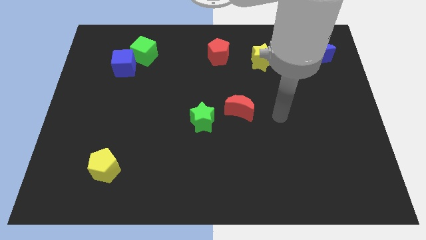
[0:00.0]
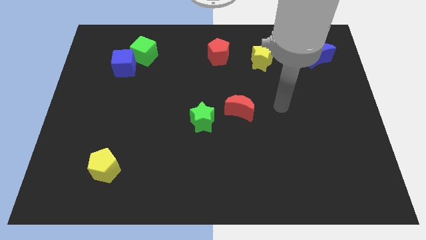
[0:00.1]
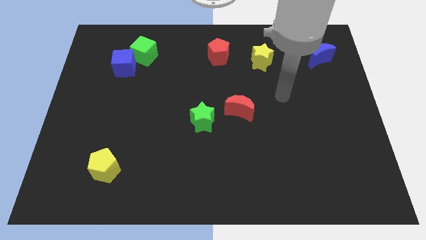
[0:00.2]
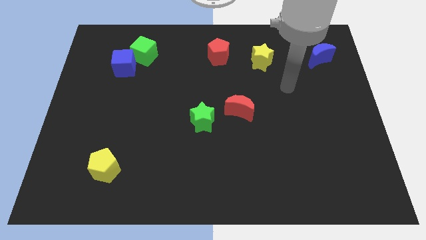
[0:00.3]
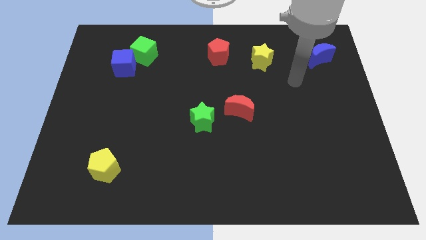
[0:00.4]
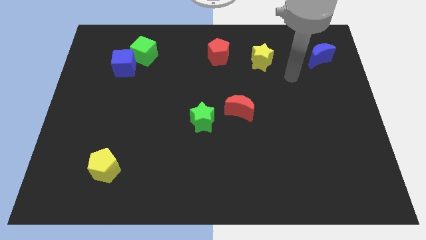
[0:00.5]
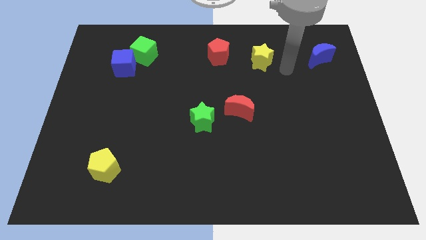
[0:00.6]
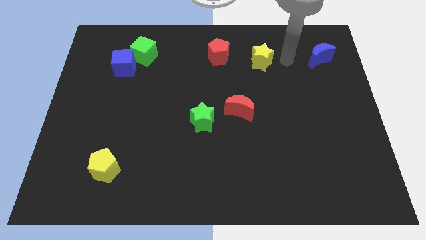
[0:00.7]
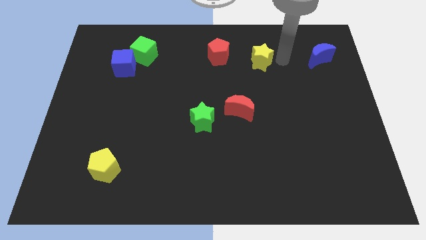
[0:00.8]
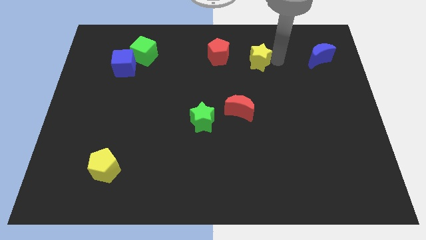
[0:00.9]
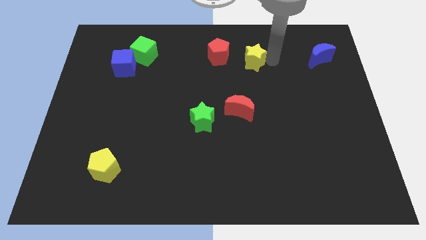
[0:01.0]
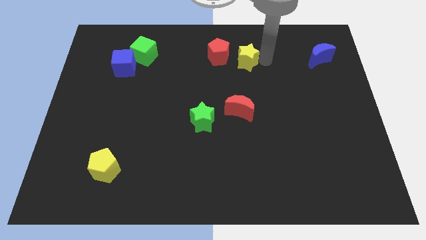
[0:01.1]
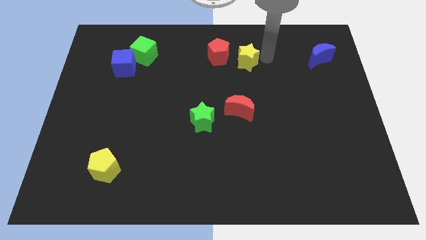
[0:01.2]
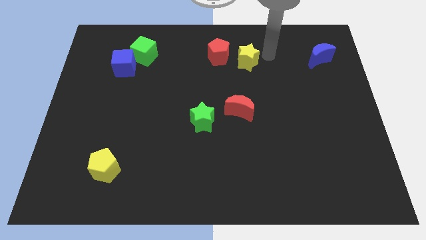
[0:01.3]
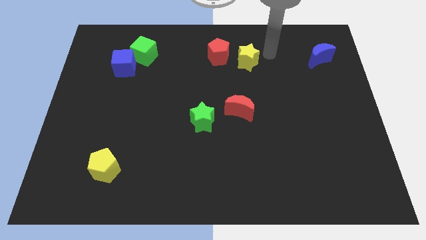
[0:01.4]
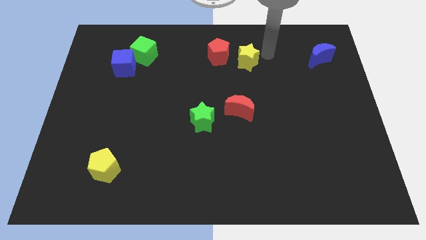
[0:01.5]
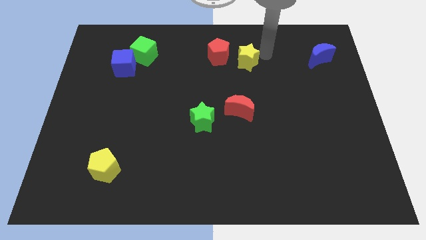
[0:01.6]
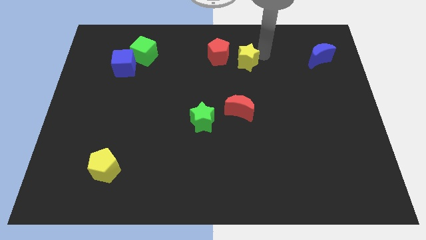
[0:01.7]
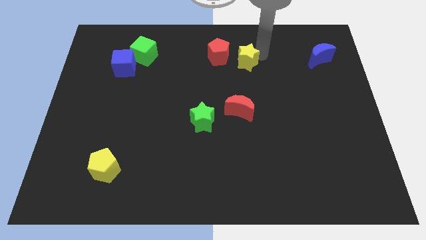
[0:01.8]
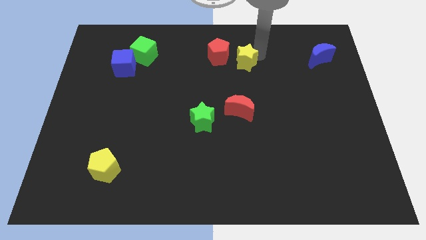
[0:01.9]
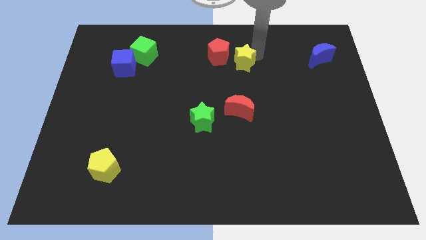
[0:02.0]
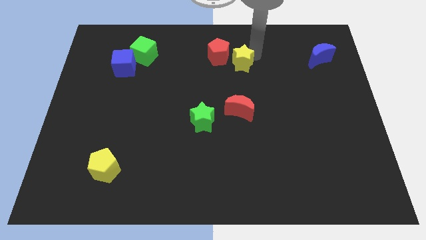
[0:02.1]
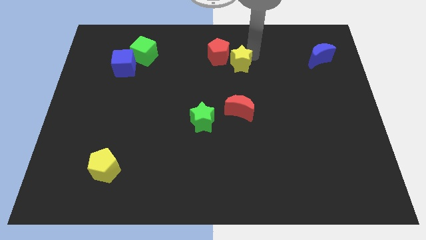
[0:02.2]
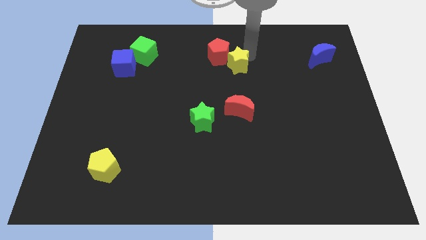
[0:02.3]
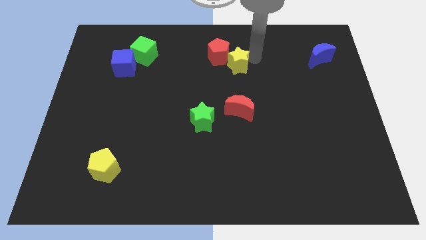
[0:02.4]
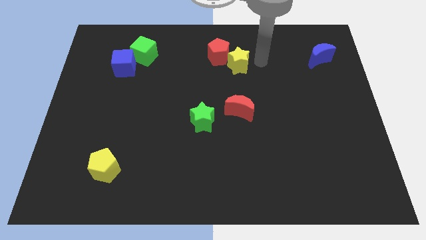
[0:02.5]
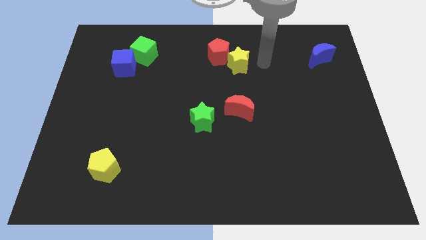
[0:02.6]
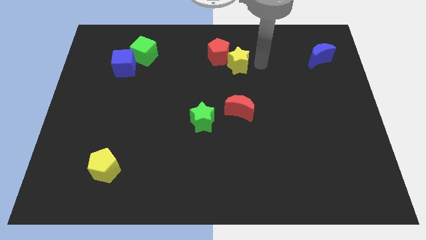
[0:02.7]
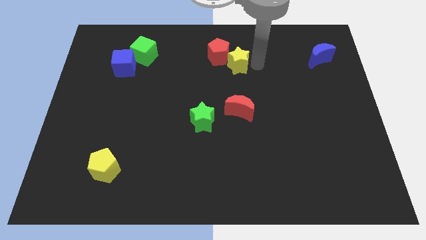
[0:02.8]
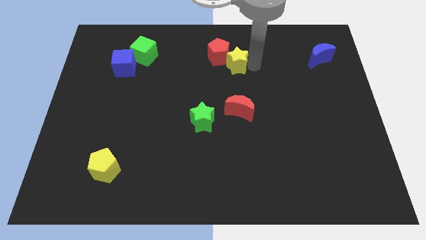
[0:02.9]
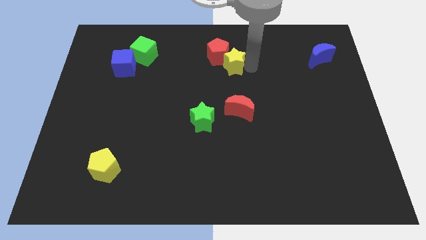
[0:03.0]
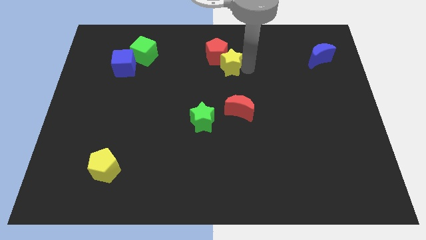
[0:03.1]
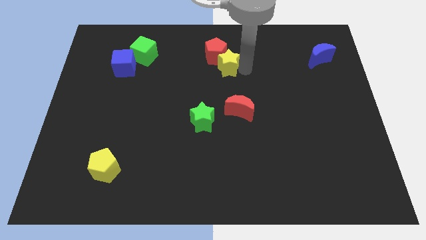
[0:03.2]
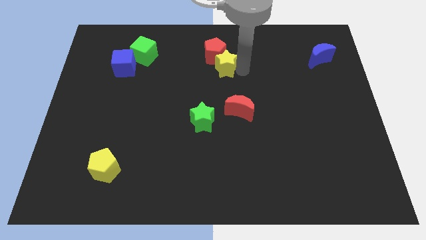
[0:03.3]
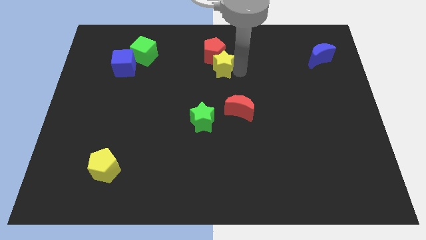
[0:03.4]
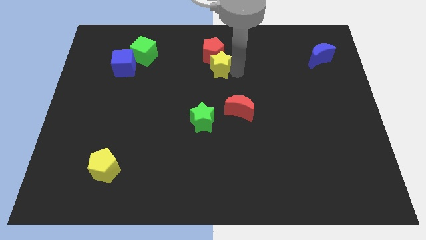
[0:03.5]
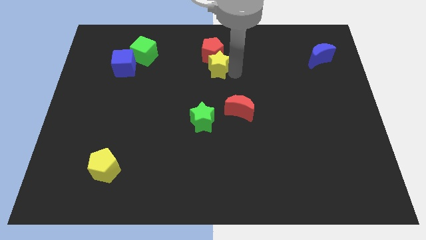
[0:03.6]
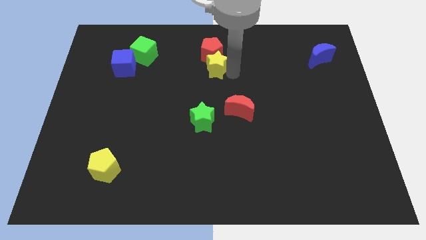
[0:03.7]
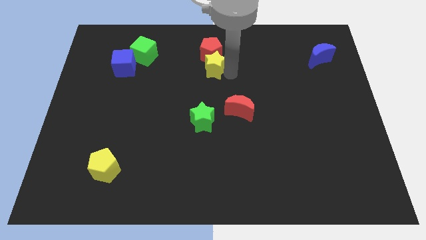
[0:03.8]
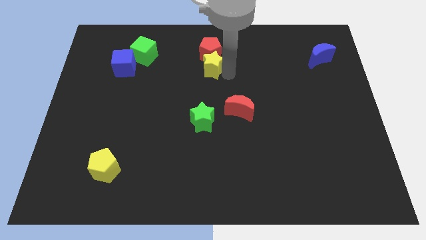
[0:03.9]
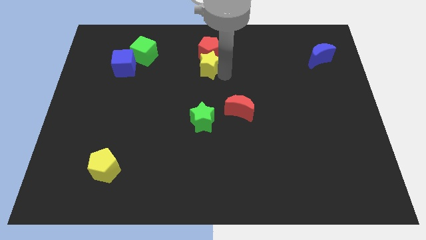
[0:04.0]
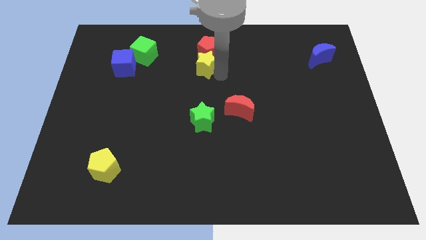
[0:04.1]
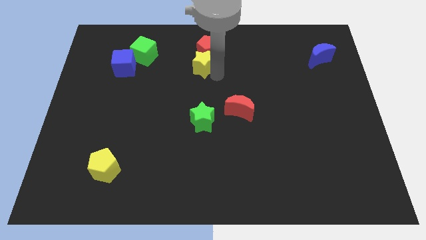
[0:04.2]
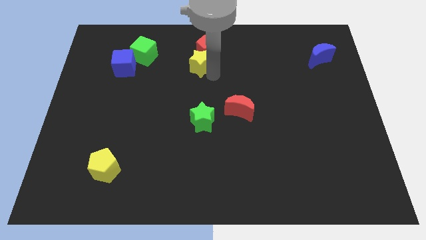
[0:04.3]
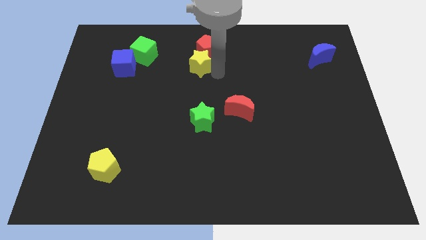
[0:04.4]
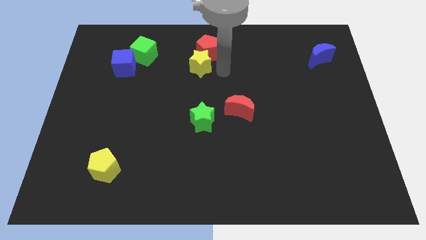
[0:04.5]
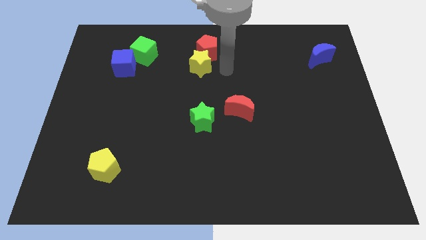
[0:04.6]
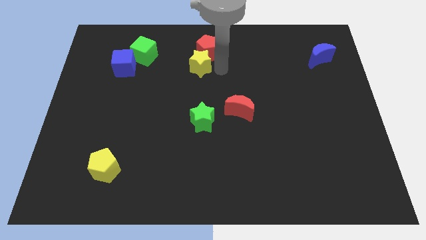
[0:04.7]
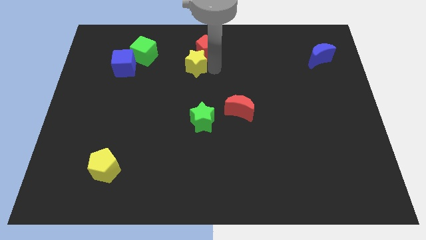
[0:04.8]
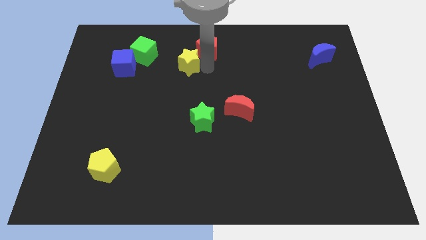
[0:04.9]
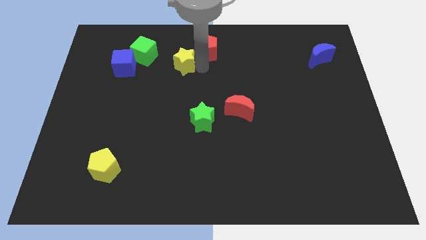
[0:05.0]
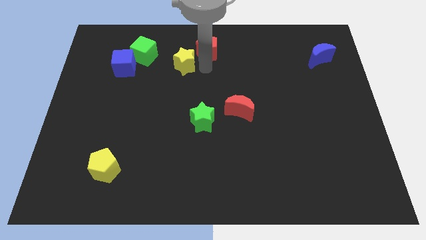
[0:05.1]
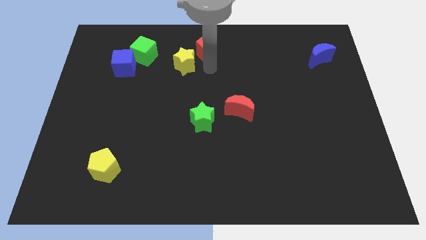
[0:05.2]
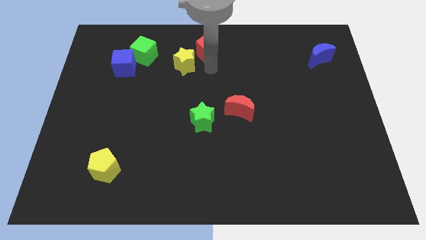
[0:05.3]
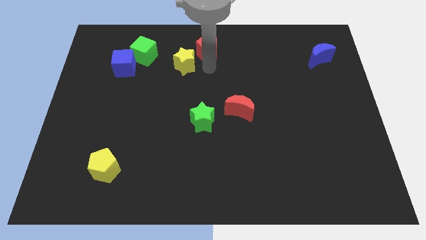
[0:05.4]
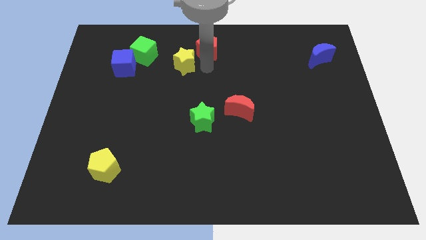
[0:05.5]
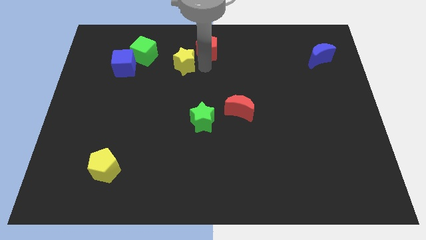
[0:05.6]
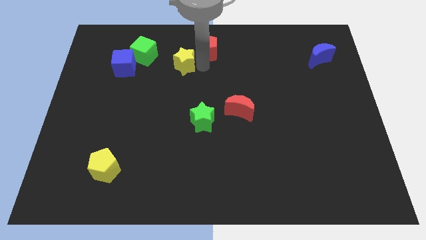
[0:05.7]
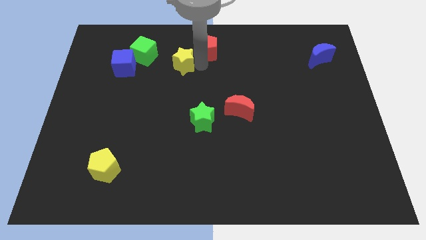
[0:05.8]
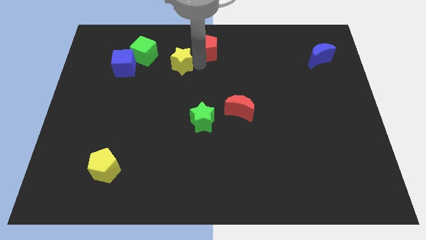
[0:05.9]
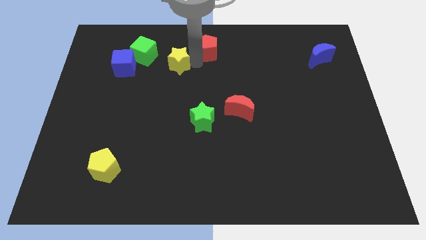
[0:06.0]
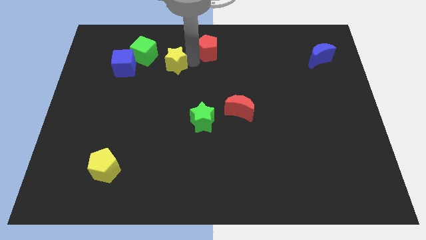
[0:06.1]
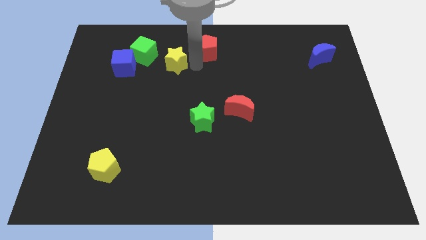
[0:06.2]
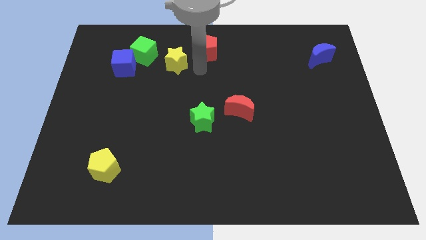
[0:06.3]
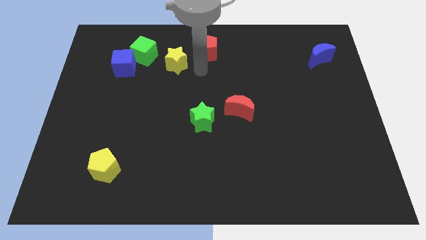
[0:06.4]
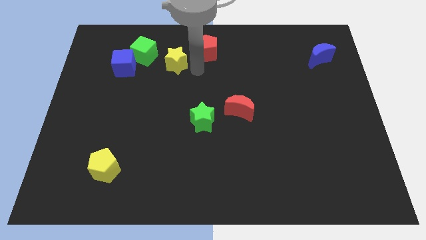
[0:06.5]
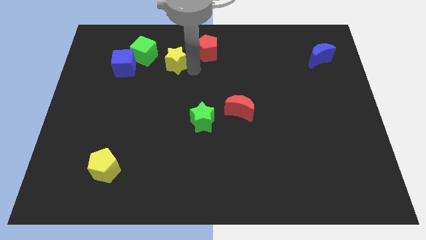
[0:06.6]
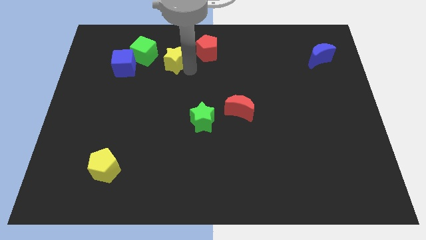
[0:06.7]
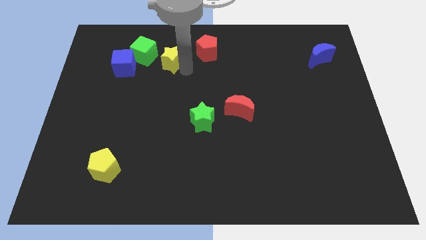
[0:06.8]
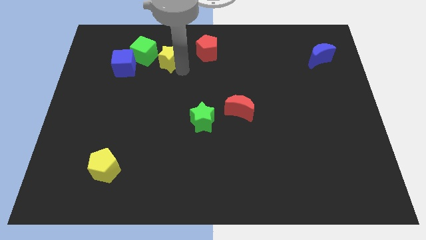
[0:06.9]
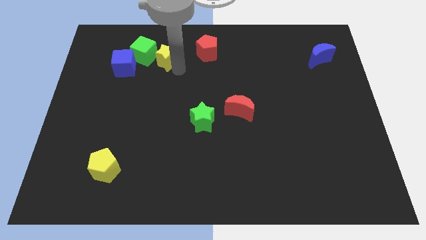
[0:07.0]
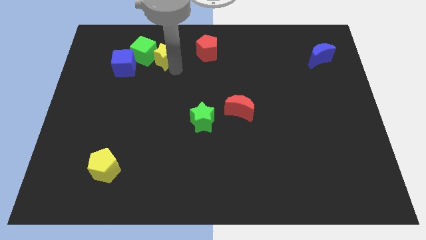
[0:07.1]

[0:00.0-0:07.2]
move the yellow star towards the green cube

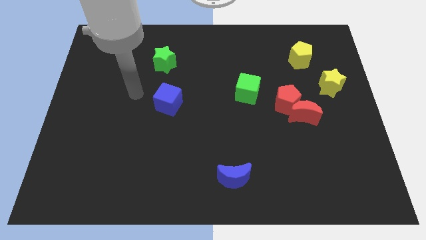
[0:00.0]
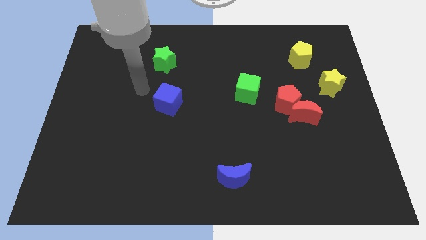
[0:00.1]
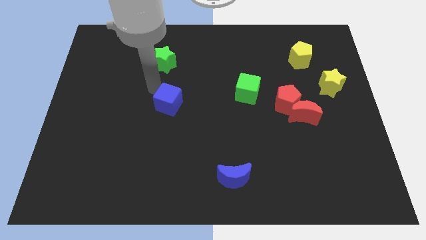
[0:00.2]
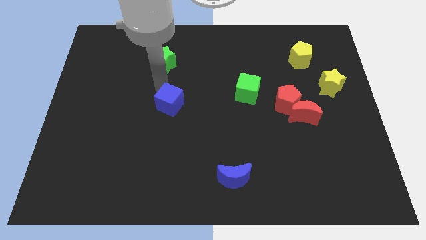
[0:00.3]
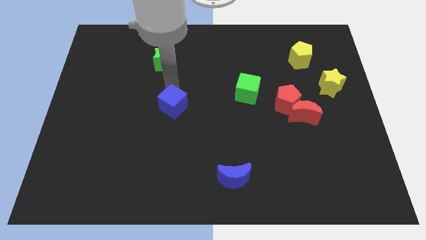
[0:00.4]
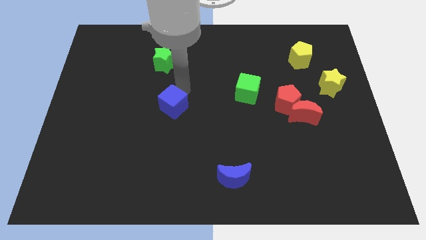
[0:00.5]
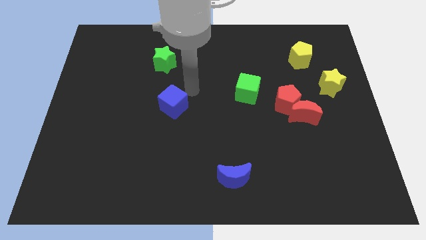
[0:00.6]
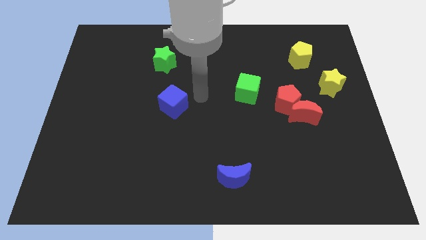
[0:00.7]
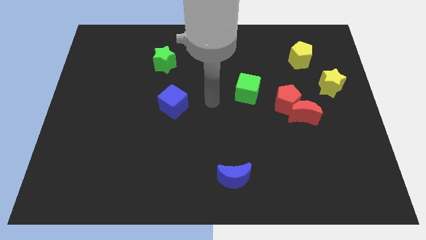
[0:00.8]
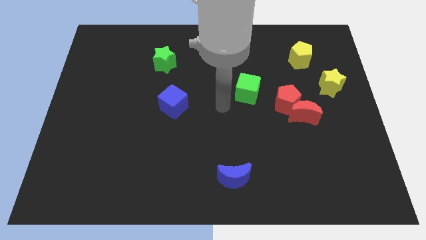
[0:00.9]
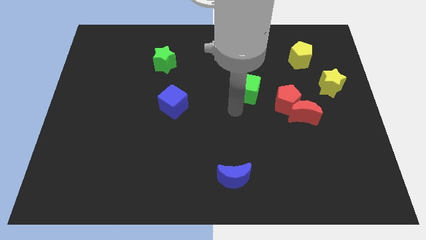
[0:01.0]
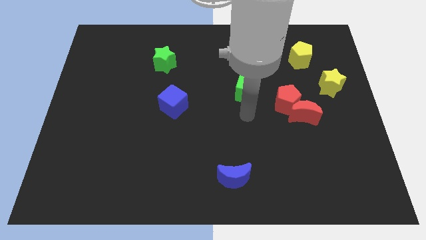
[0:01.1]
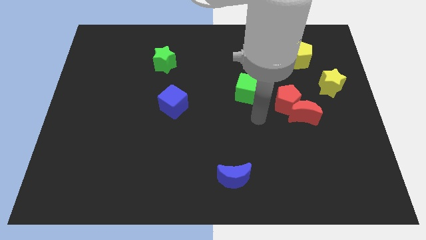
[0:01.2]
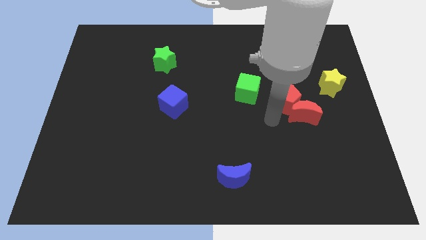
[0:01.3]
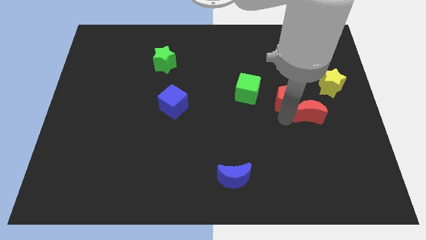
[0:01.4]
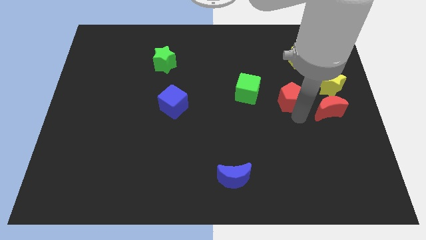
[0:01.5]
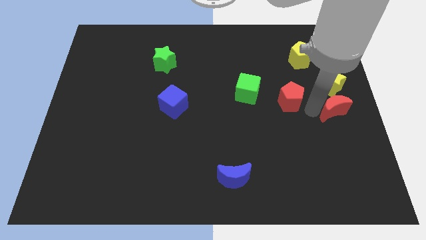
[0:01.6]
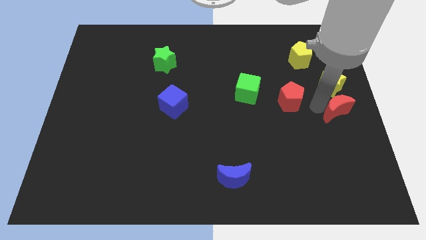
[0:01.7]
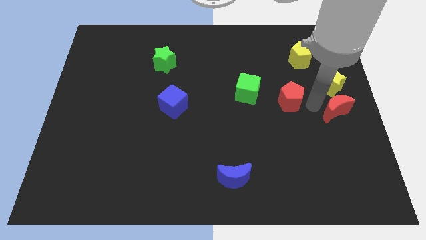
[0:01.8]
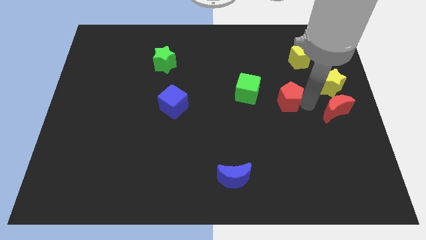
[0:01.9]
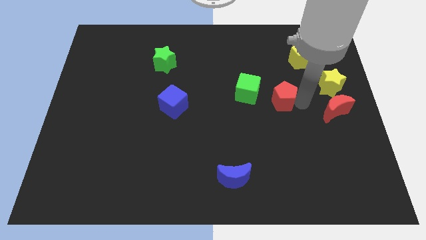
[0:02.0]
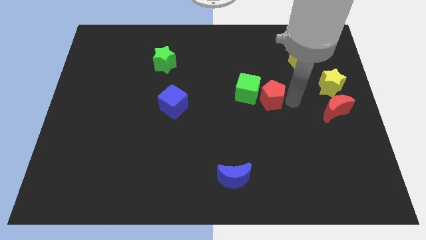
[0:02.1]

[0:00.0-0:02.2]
move the red pentagon close to the green cube
